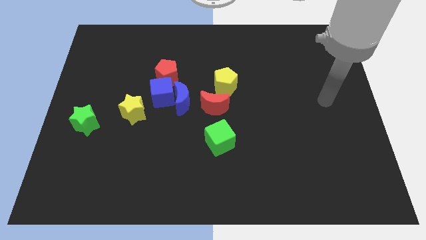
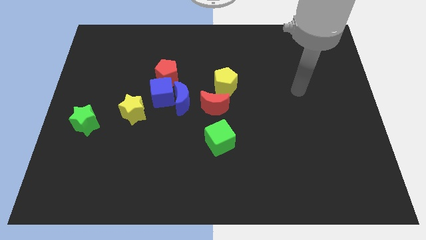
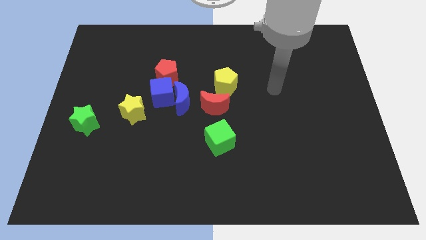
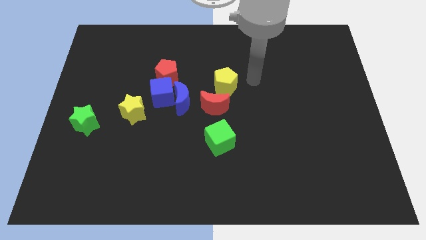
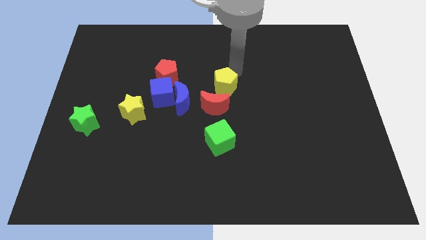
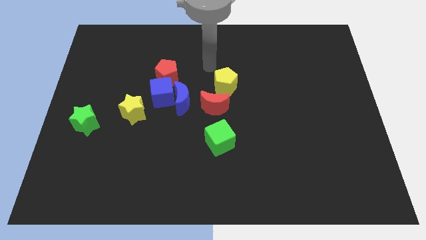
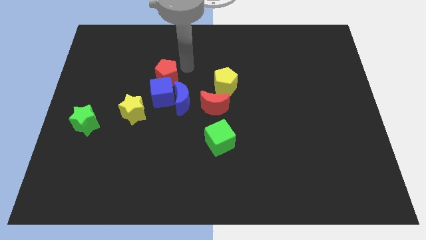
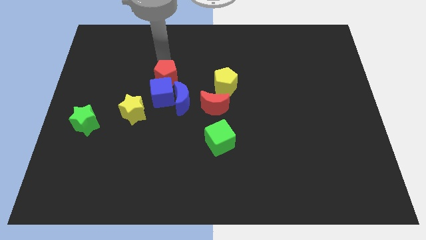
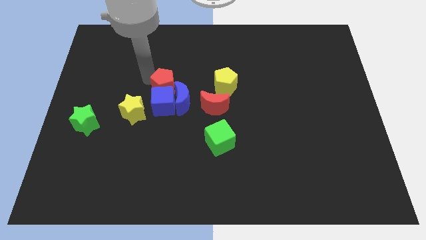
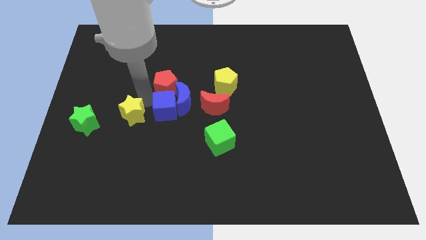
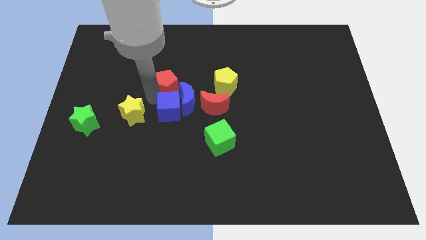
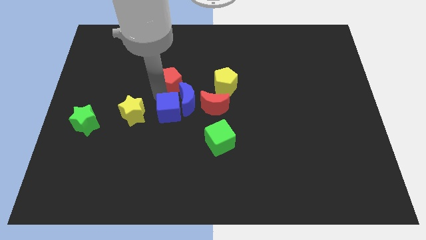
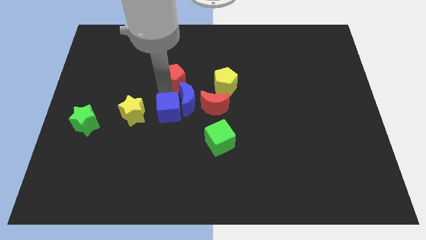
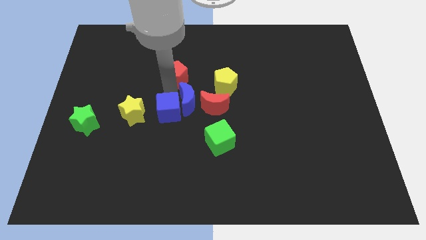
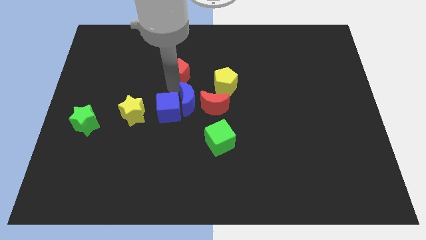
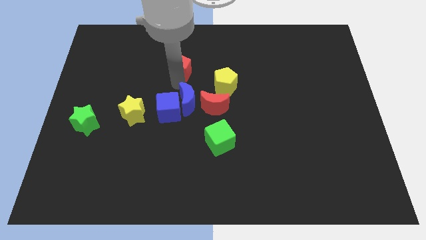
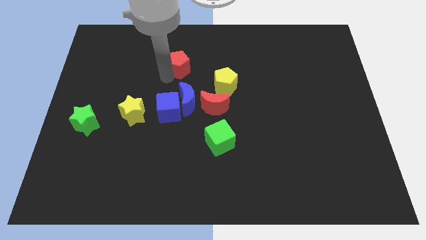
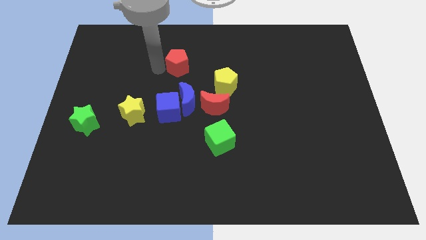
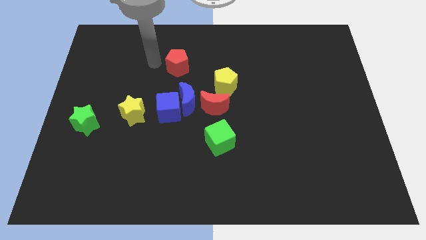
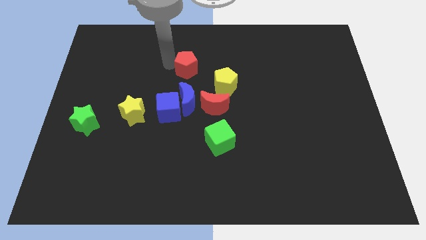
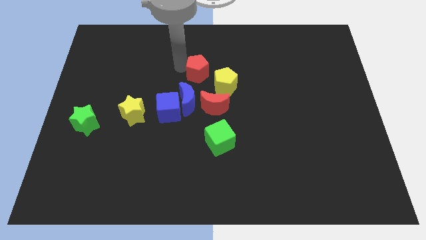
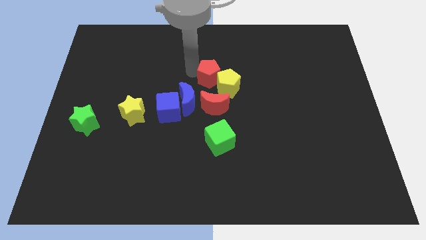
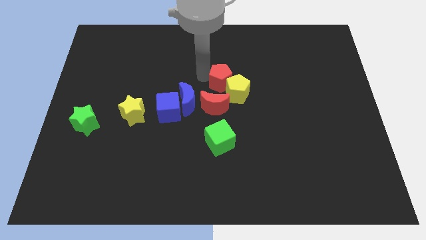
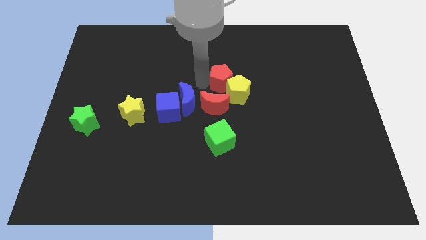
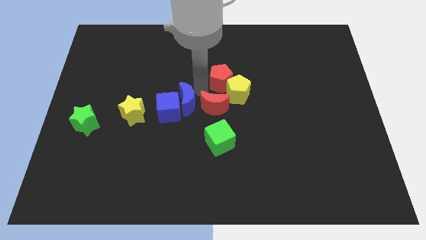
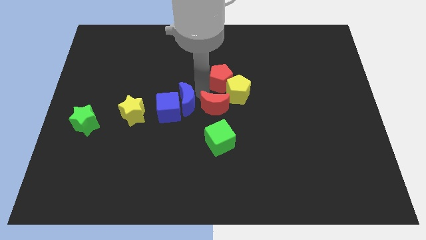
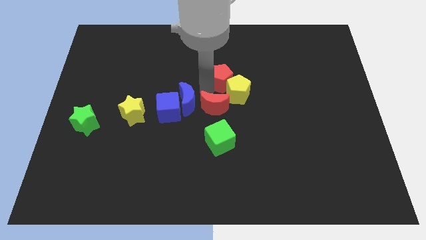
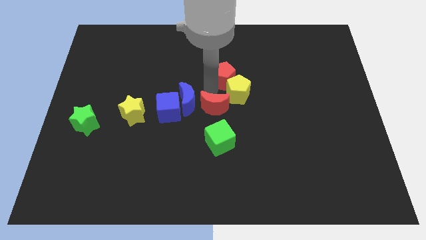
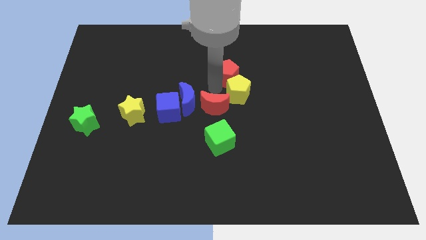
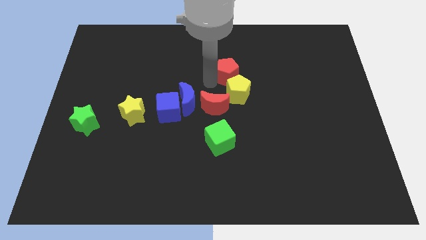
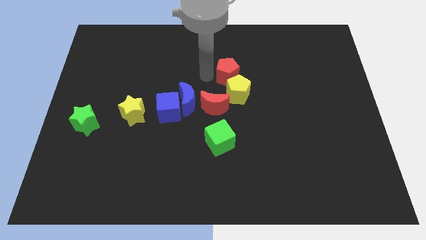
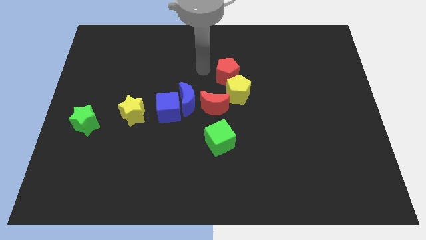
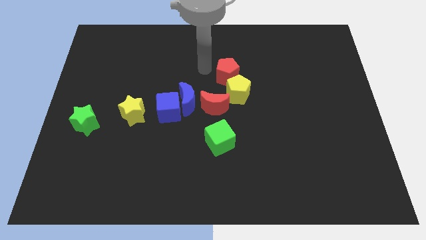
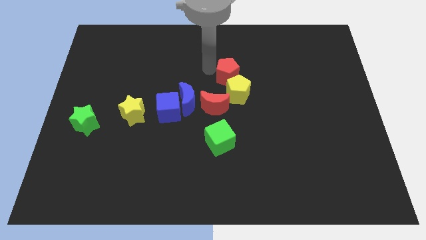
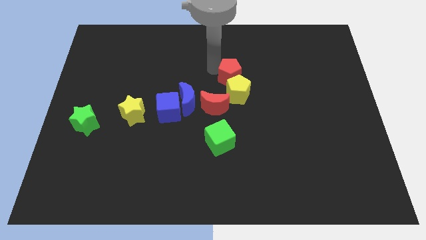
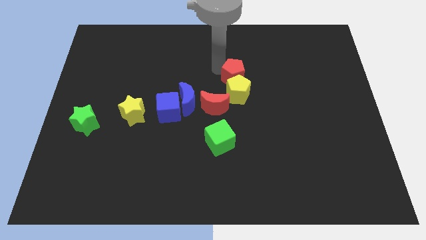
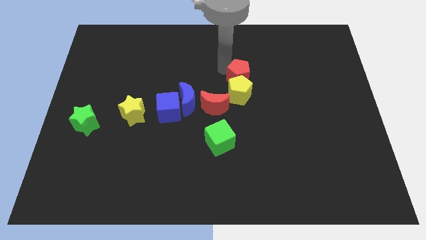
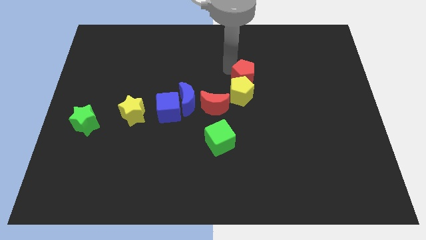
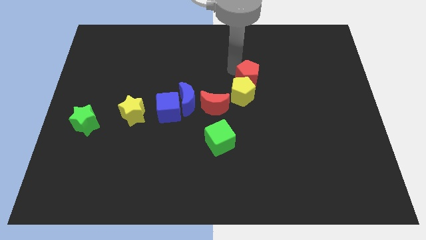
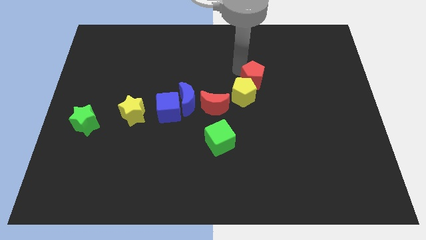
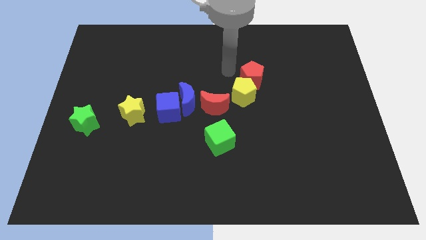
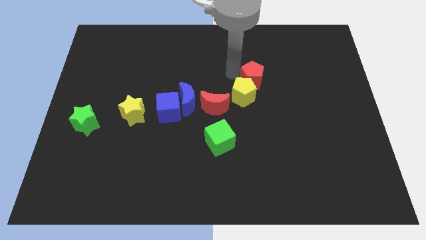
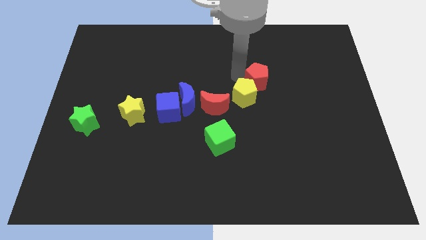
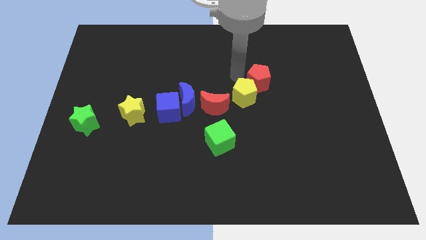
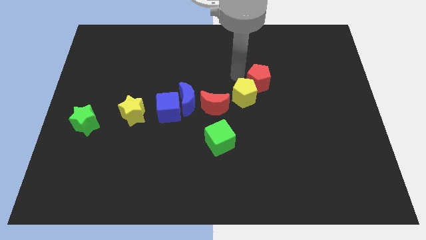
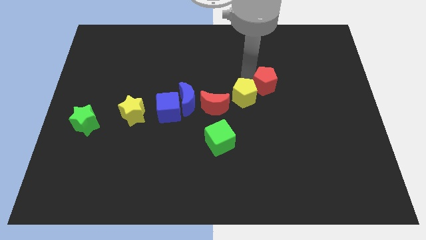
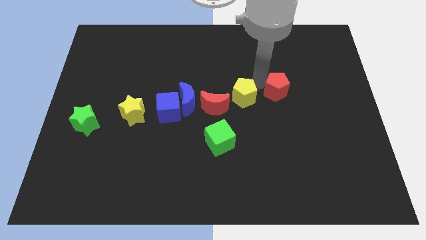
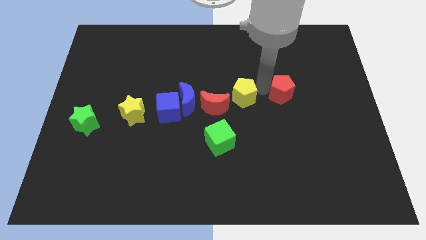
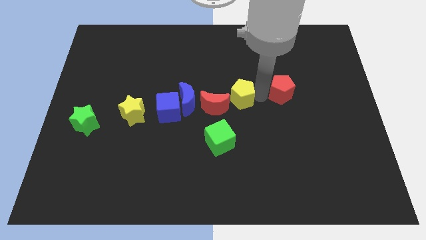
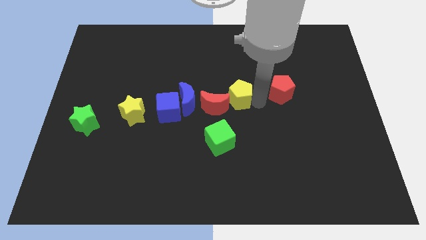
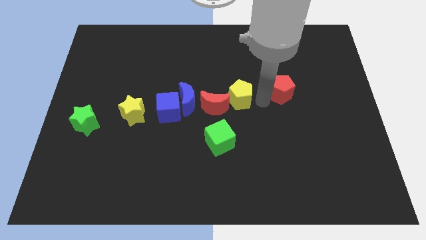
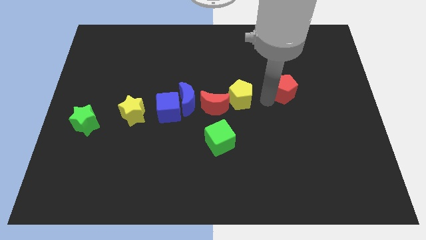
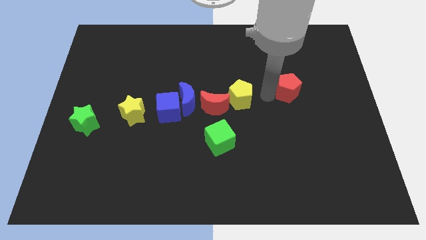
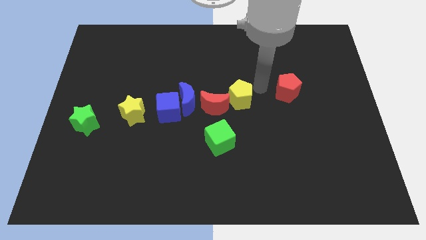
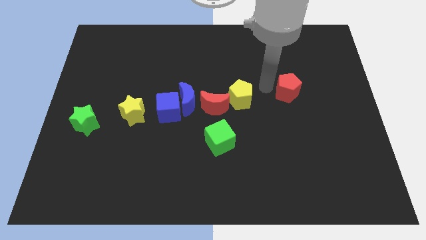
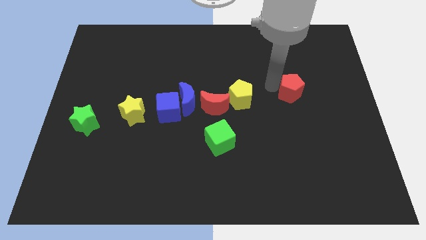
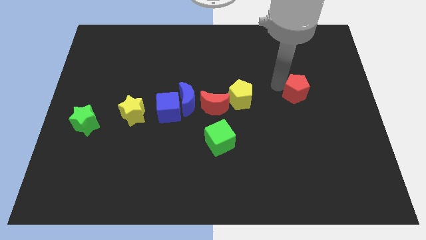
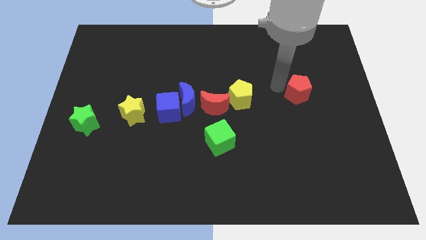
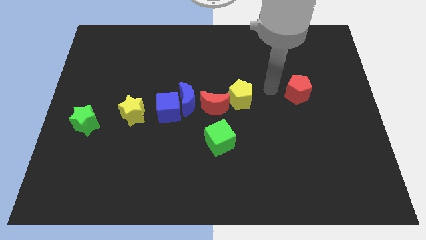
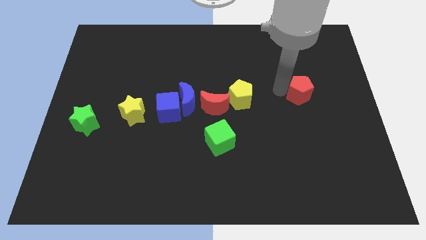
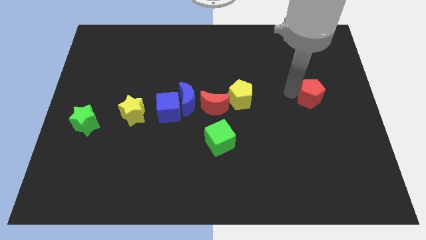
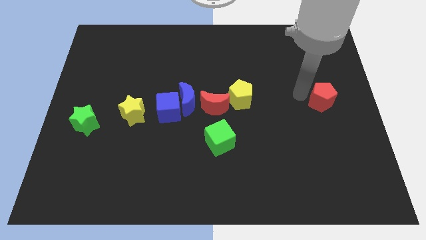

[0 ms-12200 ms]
slide the red pentagon to the center right

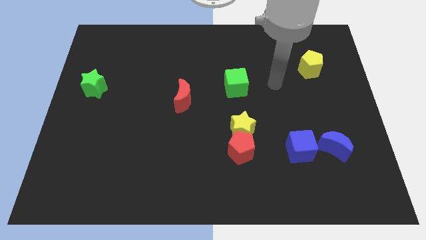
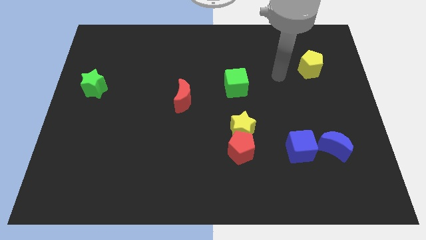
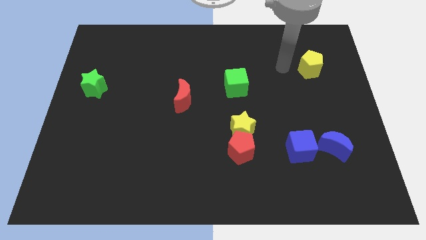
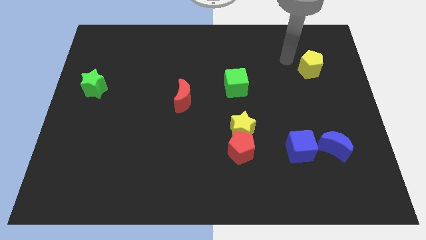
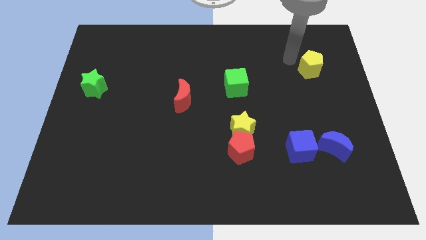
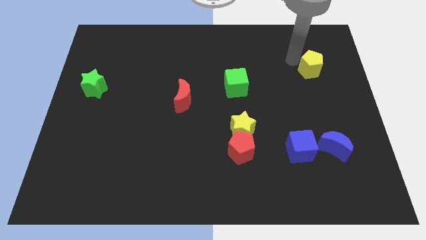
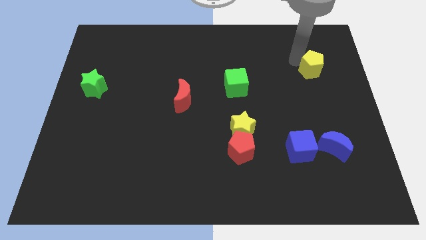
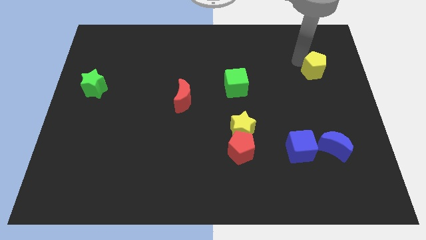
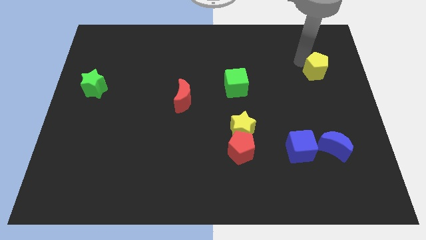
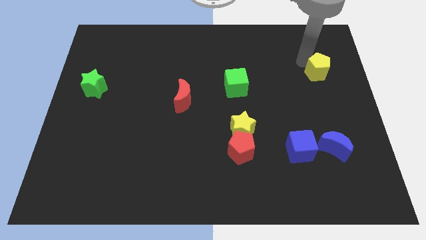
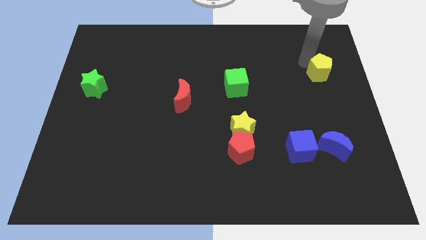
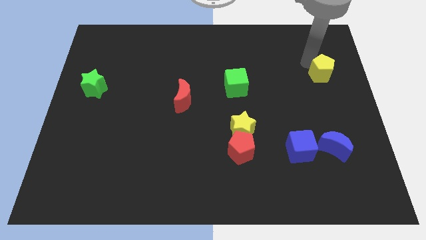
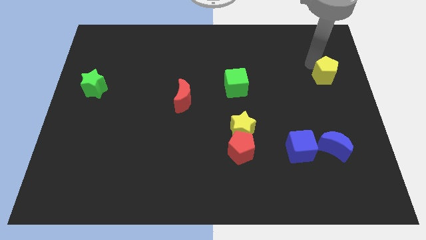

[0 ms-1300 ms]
put the yellow pentagon to the center right
